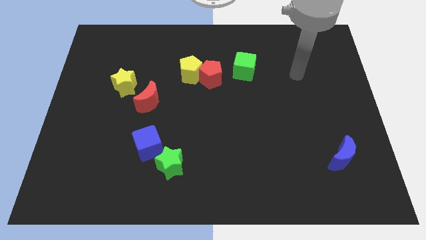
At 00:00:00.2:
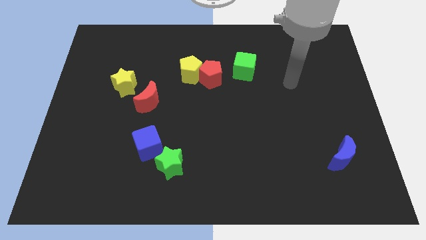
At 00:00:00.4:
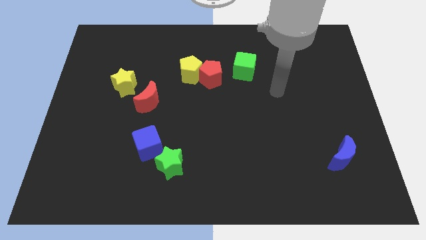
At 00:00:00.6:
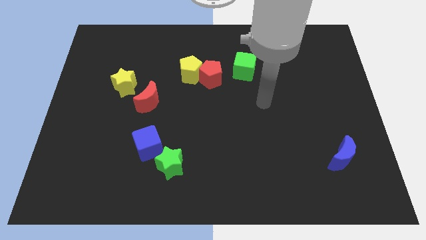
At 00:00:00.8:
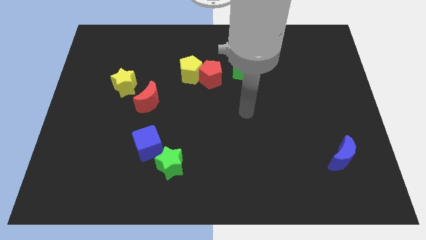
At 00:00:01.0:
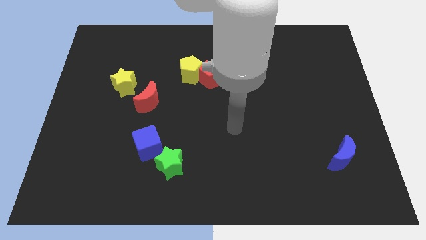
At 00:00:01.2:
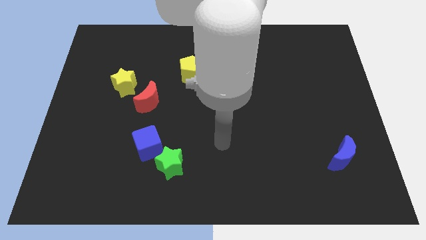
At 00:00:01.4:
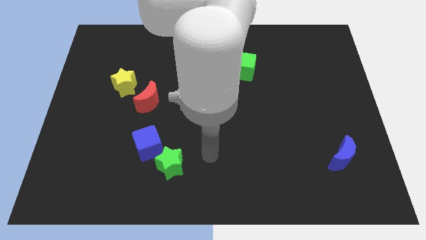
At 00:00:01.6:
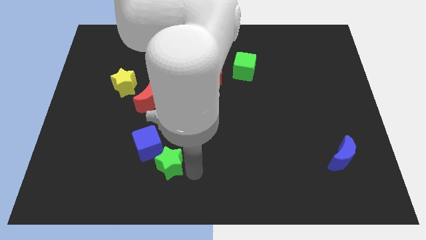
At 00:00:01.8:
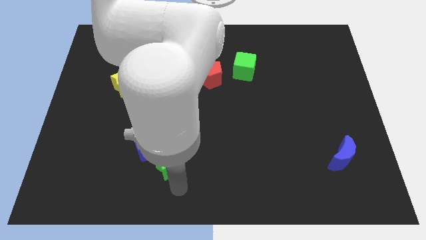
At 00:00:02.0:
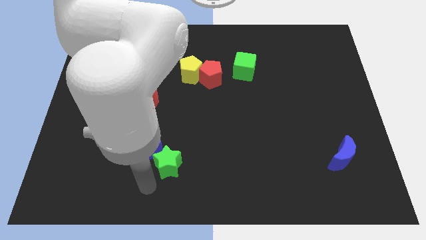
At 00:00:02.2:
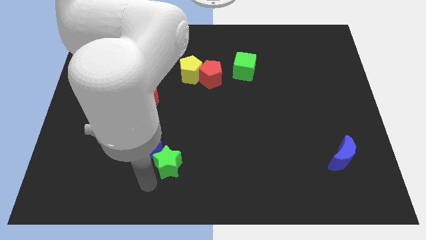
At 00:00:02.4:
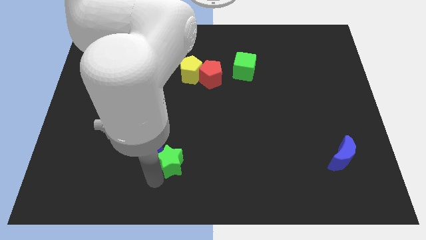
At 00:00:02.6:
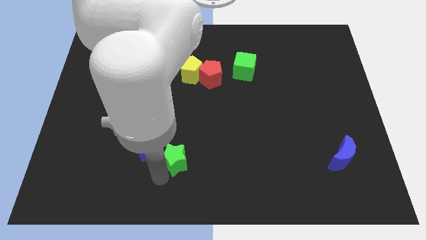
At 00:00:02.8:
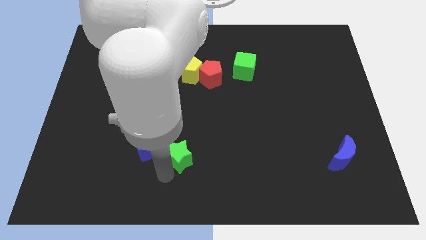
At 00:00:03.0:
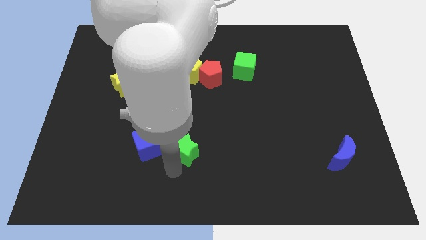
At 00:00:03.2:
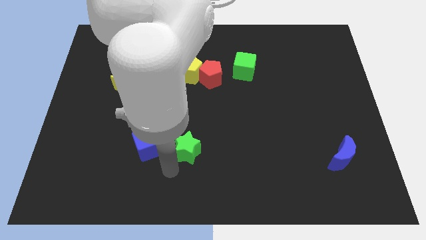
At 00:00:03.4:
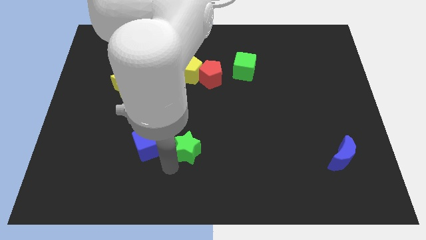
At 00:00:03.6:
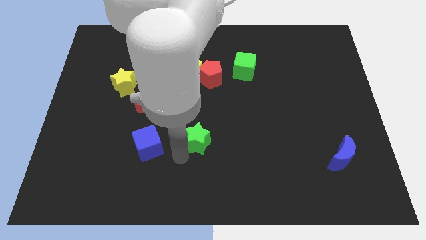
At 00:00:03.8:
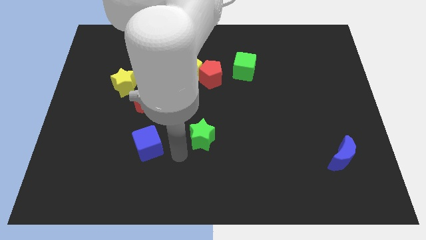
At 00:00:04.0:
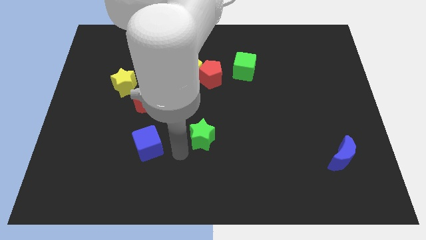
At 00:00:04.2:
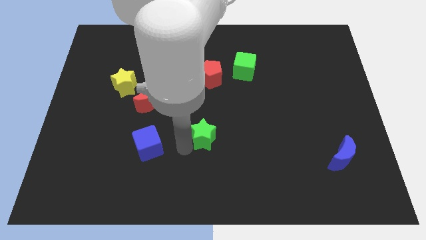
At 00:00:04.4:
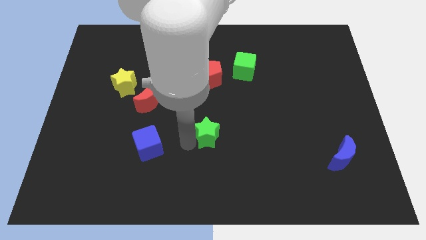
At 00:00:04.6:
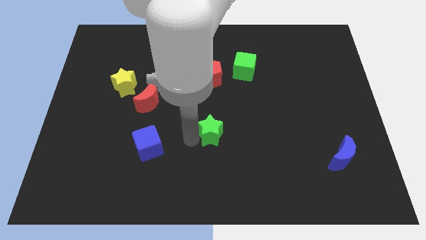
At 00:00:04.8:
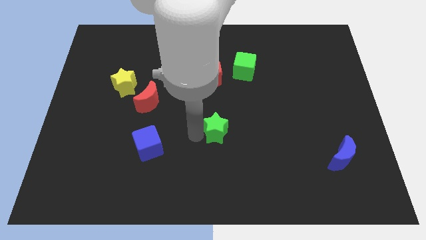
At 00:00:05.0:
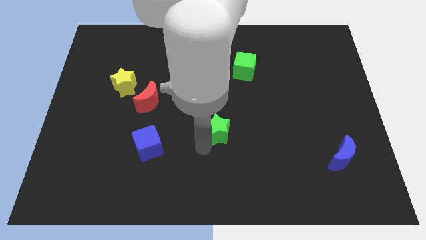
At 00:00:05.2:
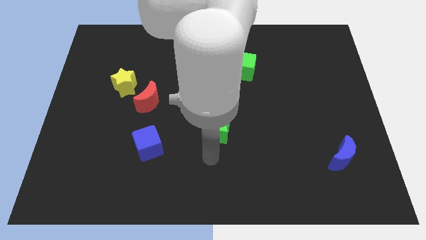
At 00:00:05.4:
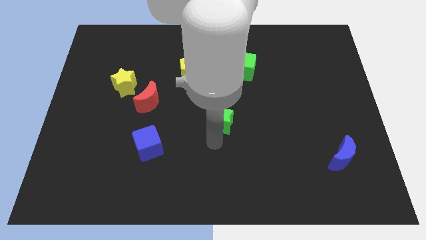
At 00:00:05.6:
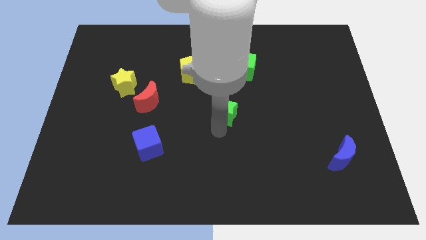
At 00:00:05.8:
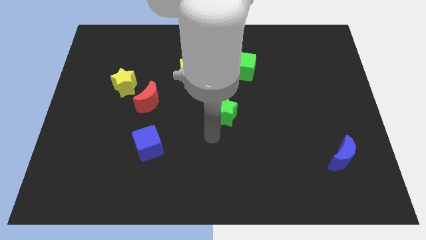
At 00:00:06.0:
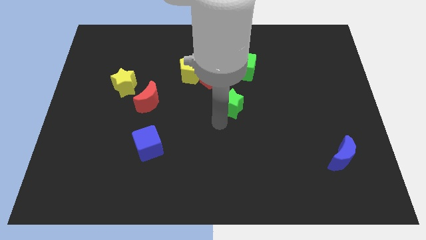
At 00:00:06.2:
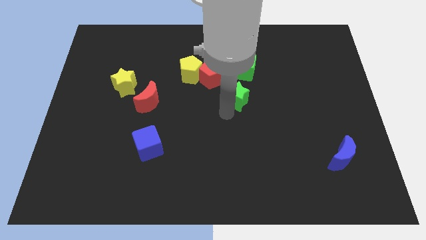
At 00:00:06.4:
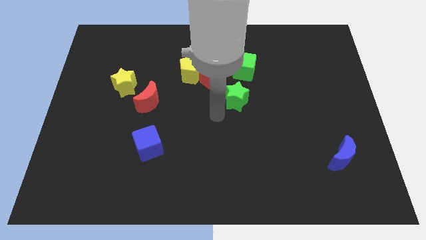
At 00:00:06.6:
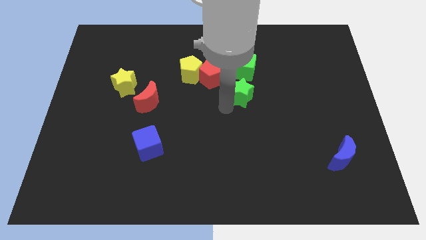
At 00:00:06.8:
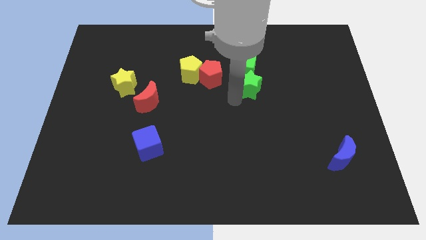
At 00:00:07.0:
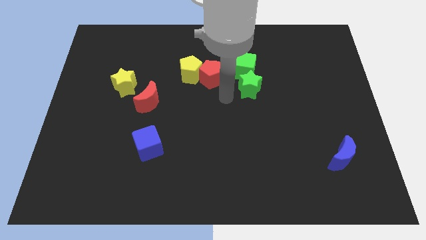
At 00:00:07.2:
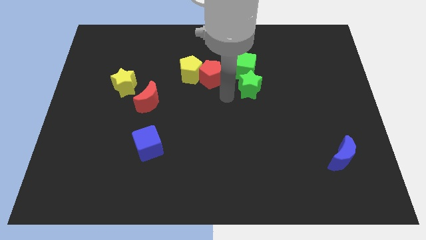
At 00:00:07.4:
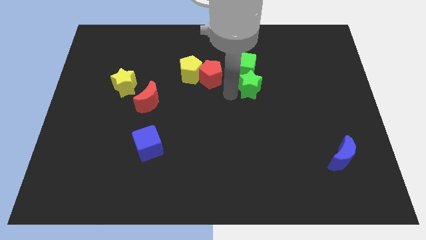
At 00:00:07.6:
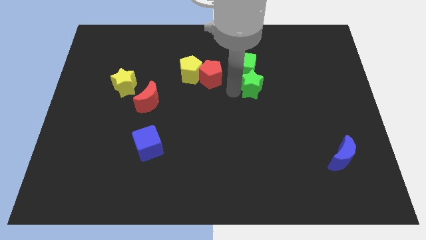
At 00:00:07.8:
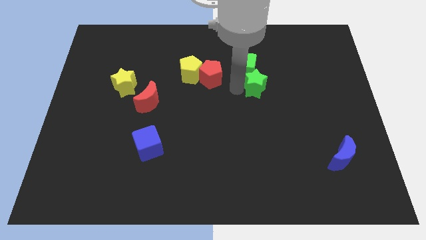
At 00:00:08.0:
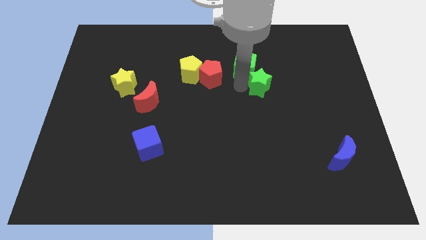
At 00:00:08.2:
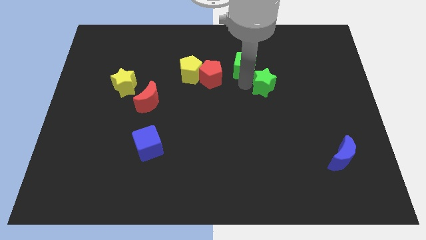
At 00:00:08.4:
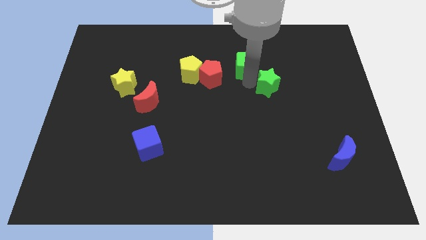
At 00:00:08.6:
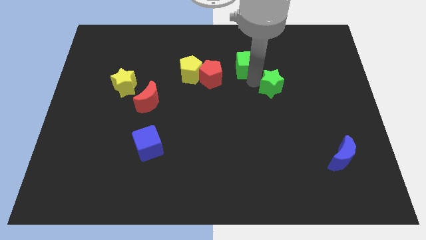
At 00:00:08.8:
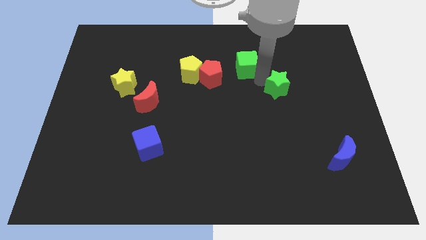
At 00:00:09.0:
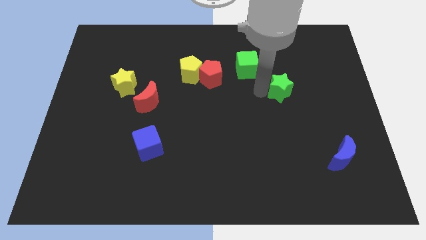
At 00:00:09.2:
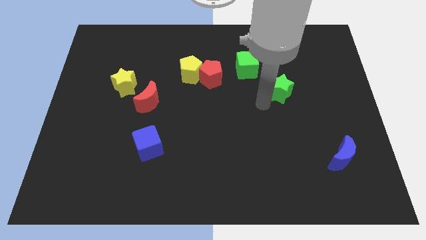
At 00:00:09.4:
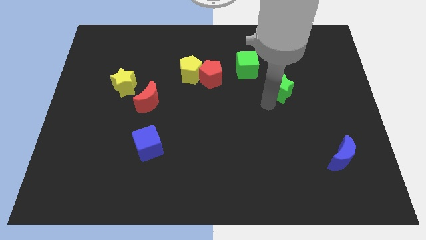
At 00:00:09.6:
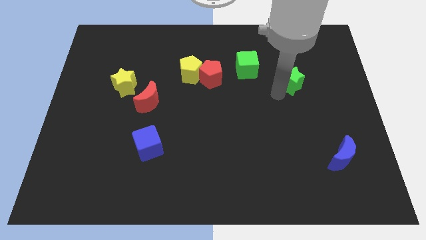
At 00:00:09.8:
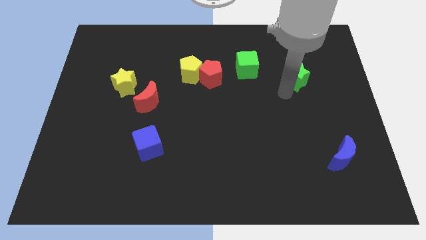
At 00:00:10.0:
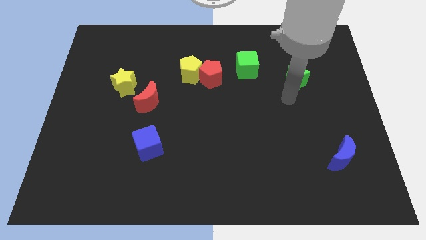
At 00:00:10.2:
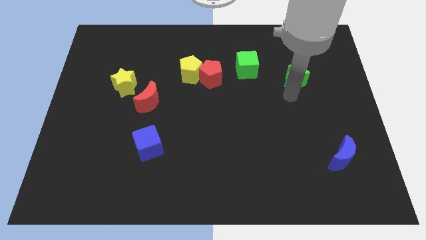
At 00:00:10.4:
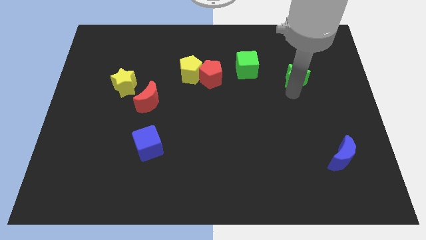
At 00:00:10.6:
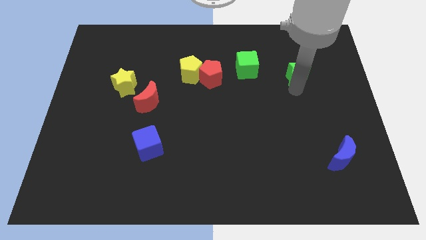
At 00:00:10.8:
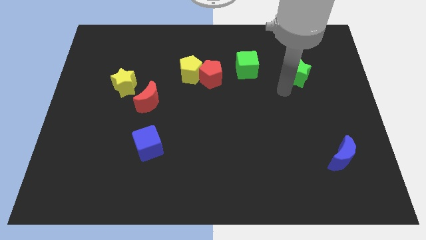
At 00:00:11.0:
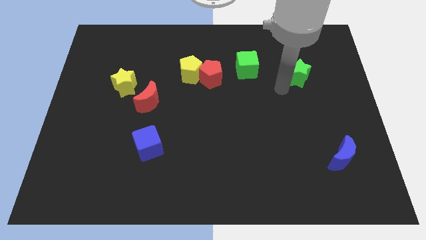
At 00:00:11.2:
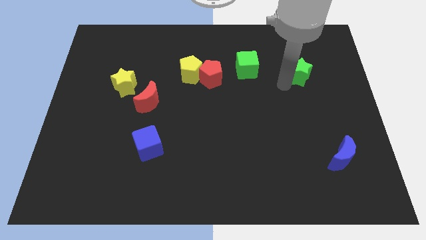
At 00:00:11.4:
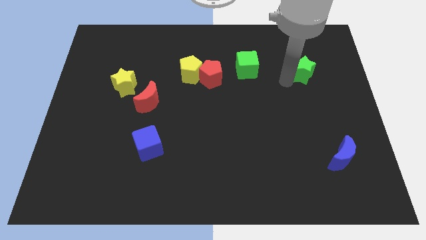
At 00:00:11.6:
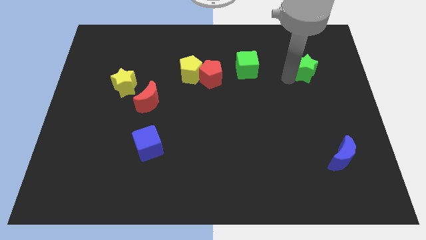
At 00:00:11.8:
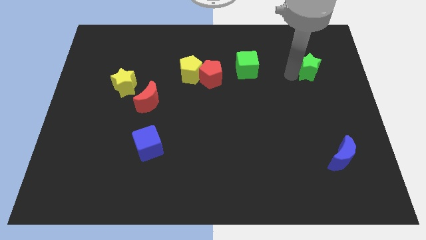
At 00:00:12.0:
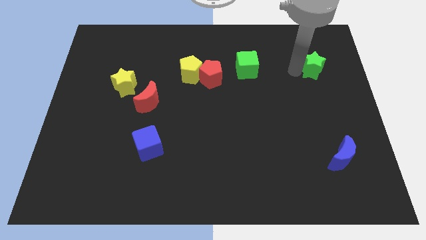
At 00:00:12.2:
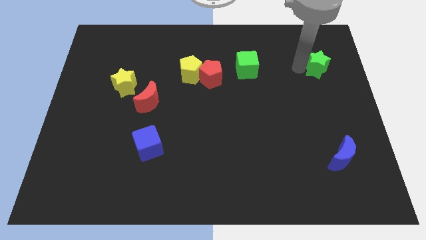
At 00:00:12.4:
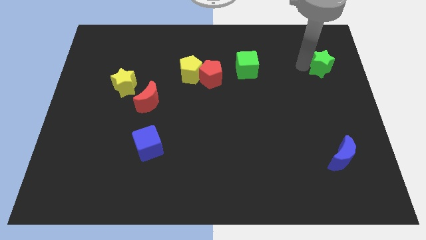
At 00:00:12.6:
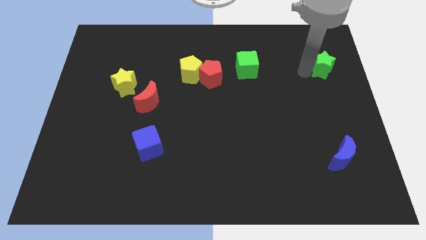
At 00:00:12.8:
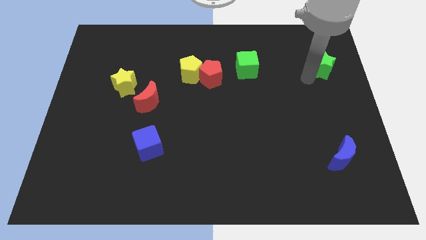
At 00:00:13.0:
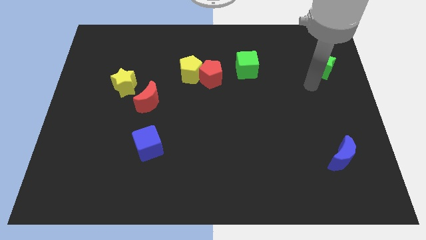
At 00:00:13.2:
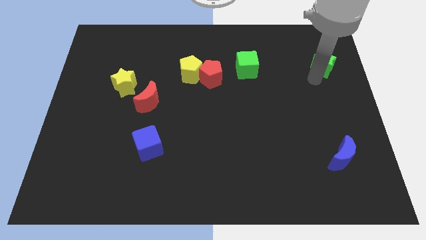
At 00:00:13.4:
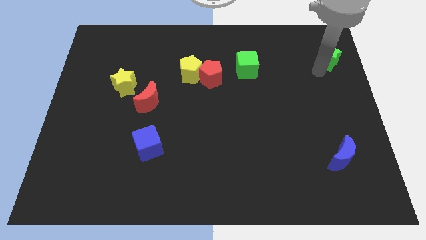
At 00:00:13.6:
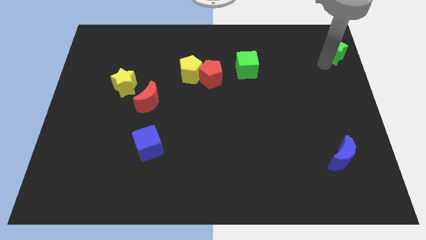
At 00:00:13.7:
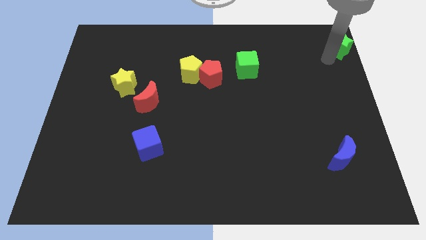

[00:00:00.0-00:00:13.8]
put the green star to the top right corner

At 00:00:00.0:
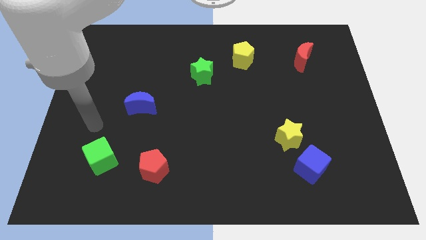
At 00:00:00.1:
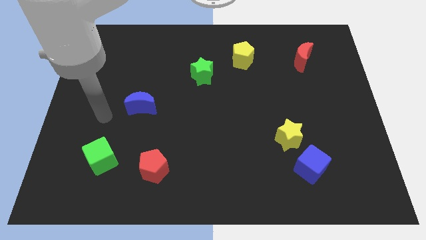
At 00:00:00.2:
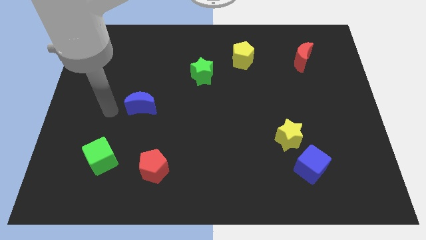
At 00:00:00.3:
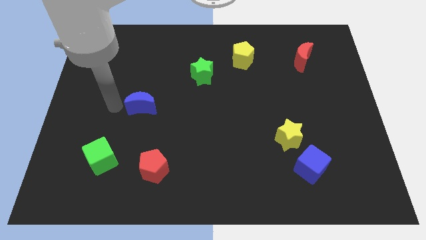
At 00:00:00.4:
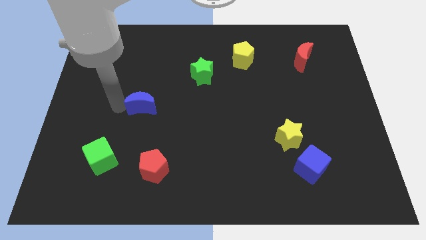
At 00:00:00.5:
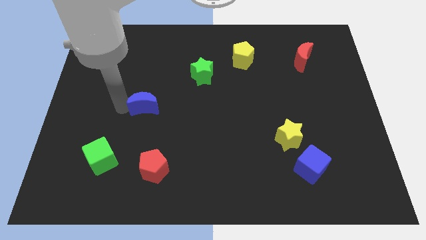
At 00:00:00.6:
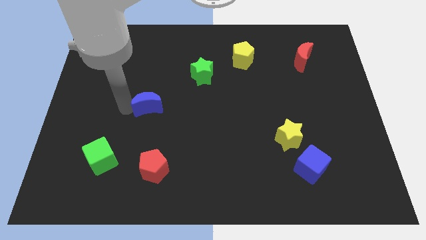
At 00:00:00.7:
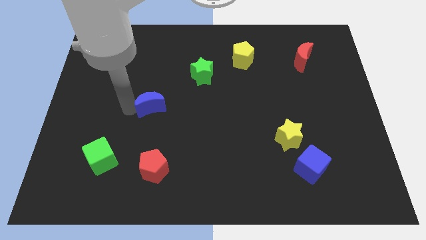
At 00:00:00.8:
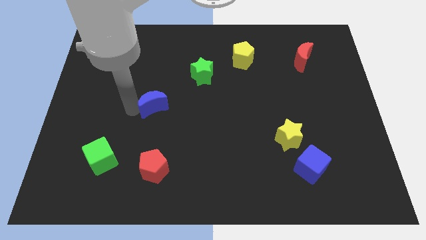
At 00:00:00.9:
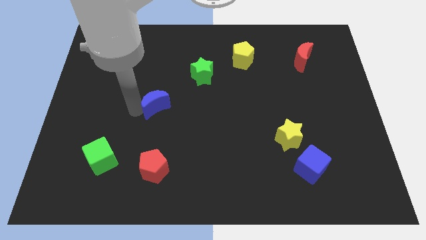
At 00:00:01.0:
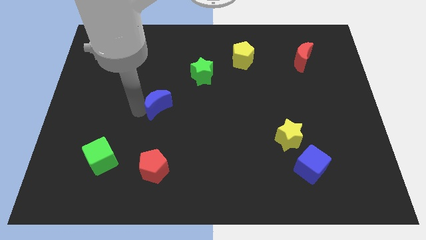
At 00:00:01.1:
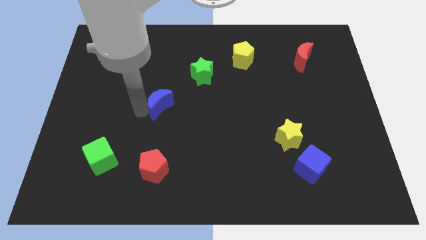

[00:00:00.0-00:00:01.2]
move the blue moon to the center of the board
